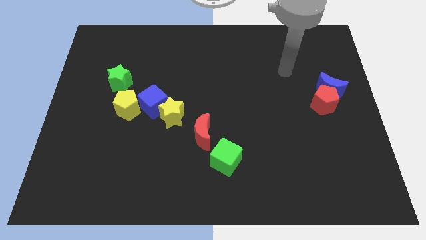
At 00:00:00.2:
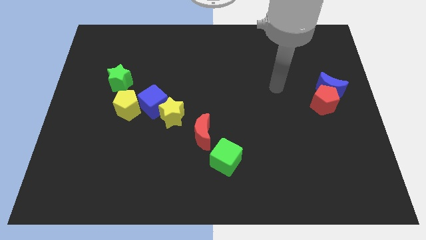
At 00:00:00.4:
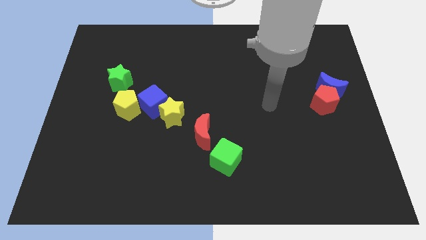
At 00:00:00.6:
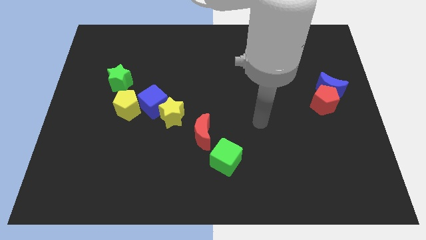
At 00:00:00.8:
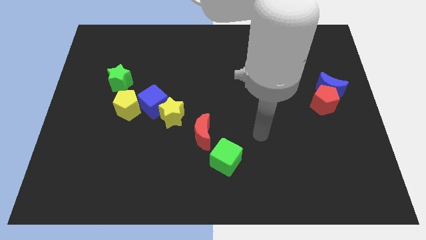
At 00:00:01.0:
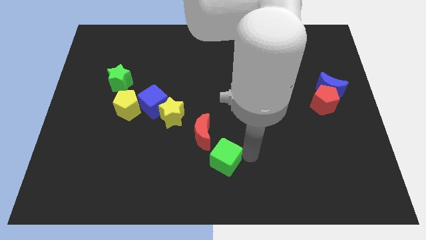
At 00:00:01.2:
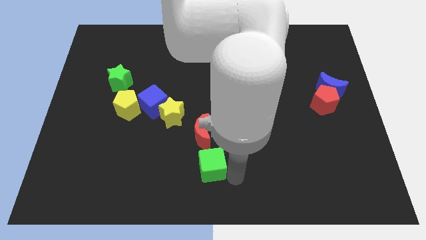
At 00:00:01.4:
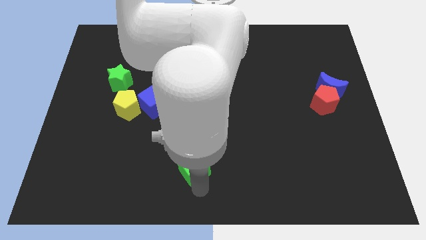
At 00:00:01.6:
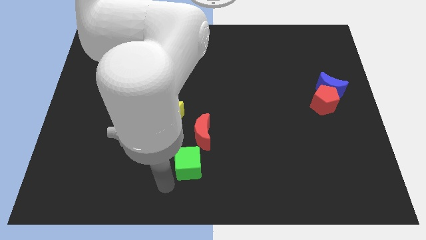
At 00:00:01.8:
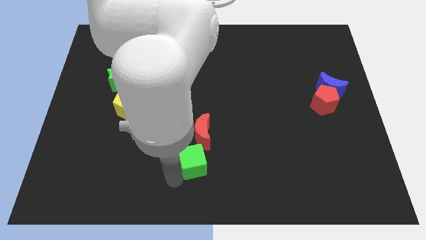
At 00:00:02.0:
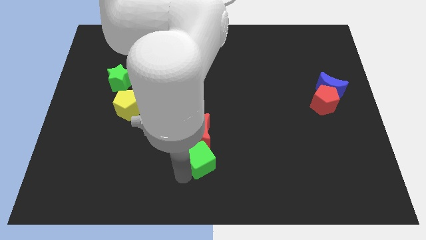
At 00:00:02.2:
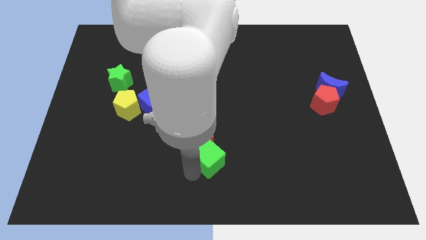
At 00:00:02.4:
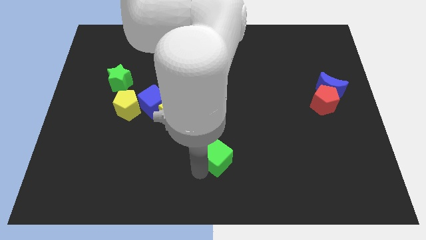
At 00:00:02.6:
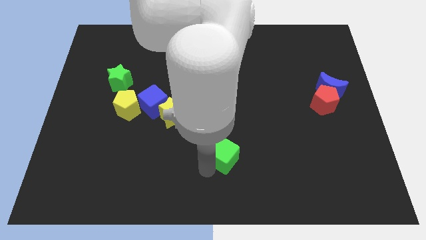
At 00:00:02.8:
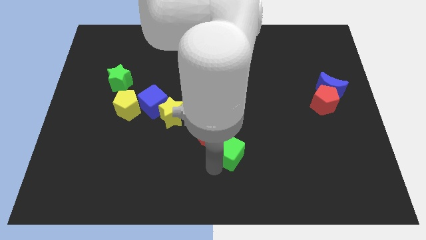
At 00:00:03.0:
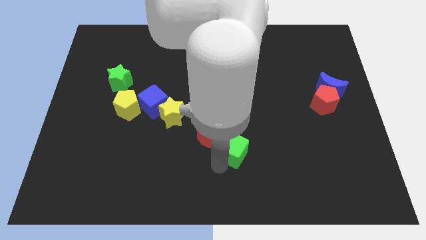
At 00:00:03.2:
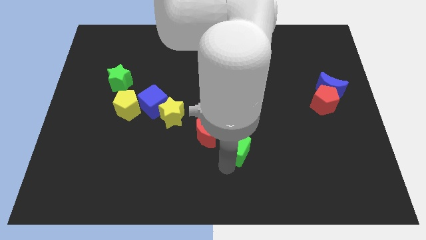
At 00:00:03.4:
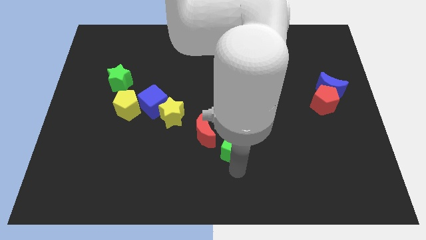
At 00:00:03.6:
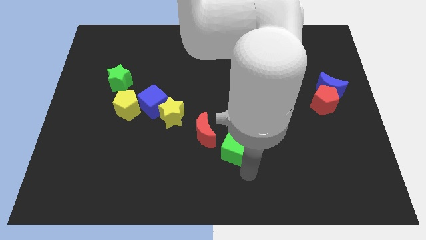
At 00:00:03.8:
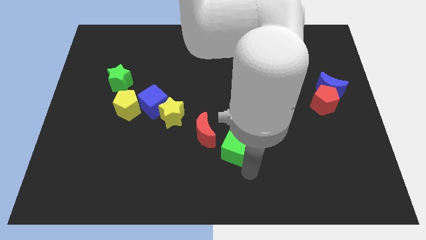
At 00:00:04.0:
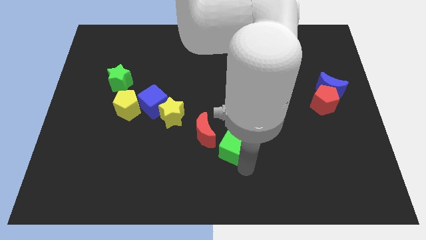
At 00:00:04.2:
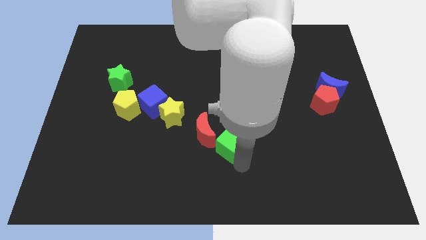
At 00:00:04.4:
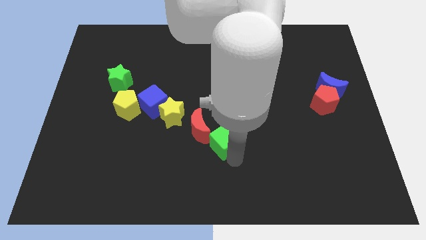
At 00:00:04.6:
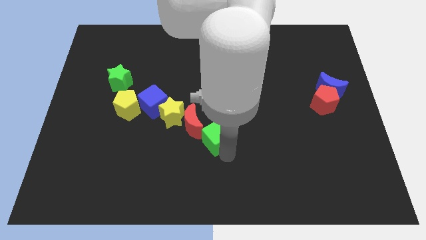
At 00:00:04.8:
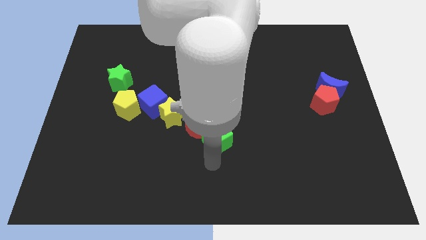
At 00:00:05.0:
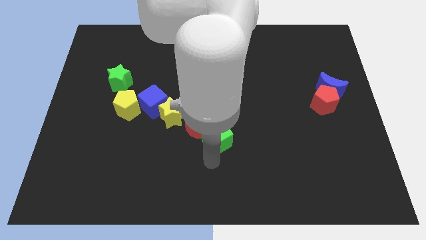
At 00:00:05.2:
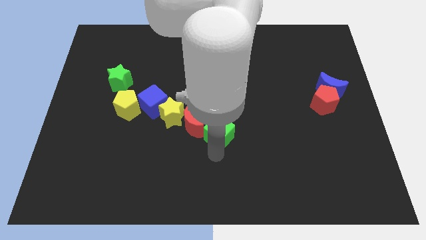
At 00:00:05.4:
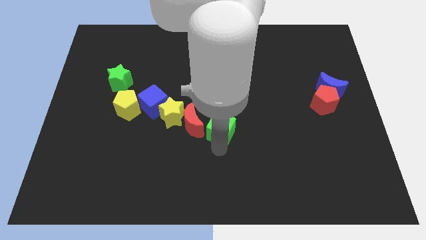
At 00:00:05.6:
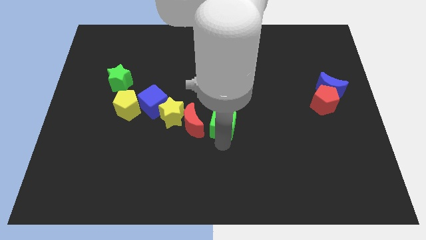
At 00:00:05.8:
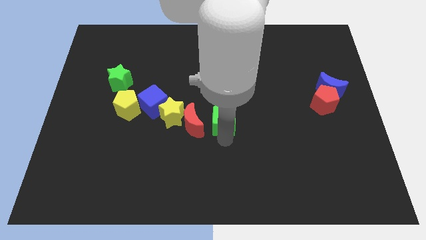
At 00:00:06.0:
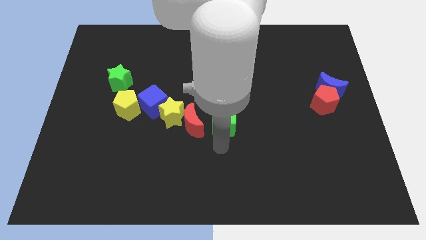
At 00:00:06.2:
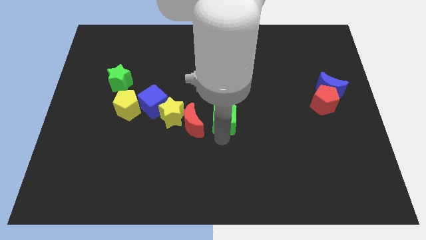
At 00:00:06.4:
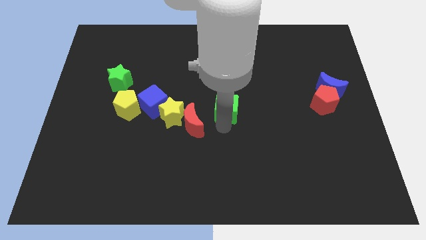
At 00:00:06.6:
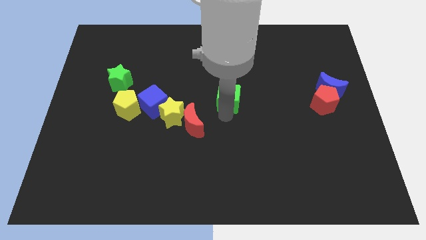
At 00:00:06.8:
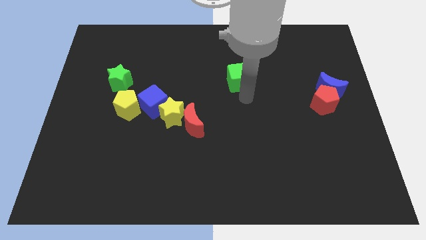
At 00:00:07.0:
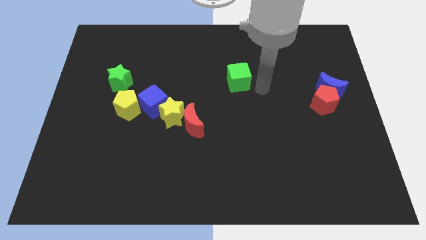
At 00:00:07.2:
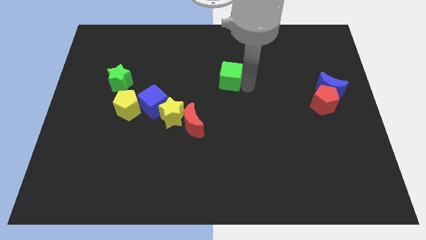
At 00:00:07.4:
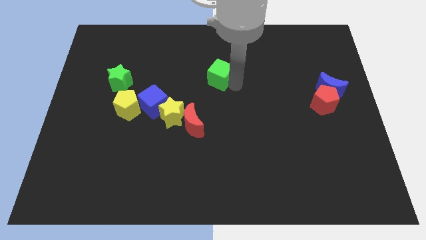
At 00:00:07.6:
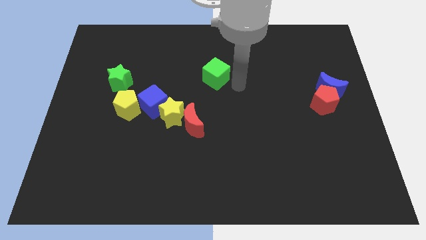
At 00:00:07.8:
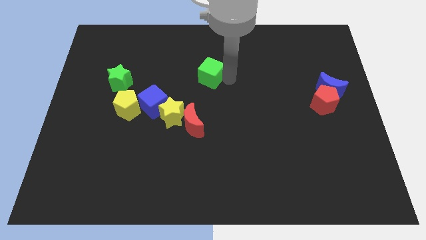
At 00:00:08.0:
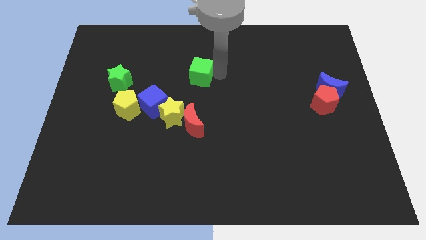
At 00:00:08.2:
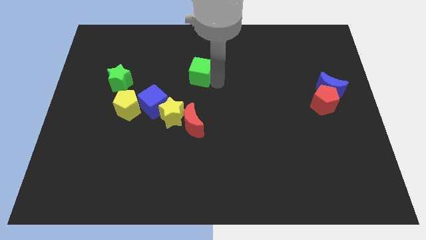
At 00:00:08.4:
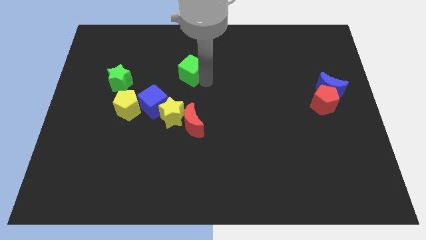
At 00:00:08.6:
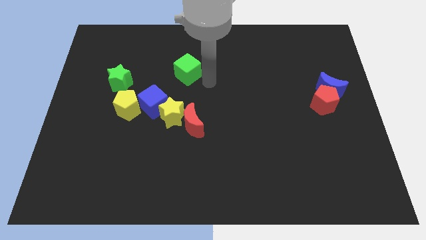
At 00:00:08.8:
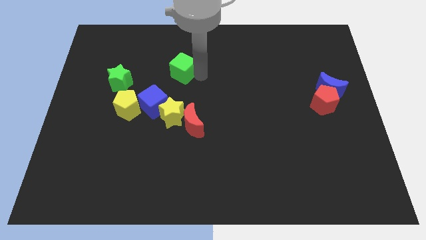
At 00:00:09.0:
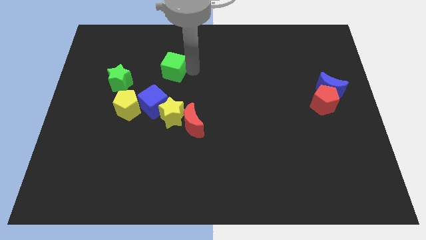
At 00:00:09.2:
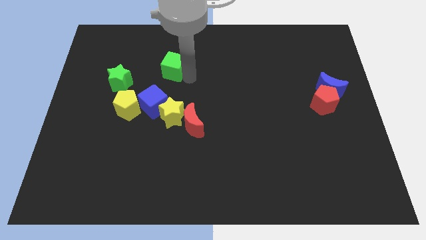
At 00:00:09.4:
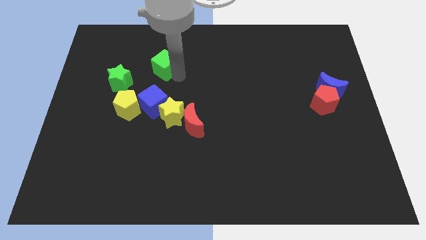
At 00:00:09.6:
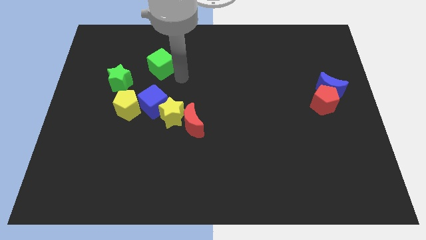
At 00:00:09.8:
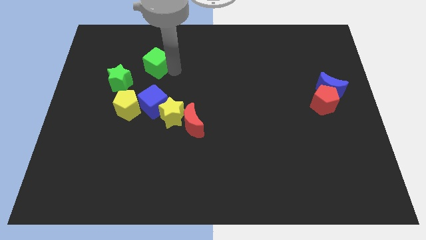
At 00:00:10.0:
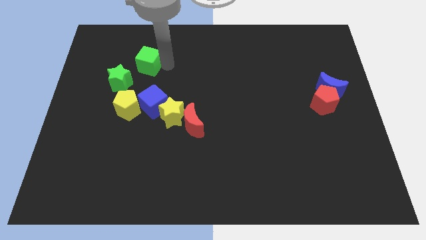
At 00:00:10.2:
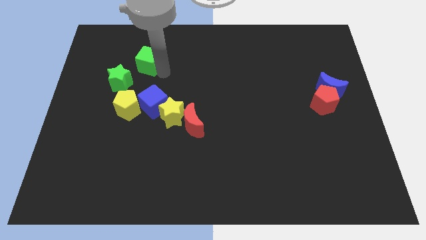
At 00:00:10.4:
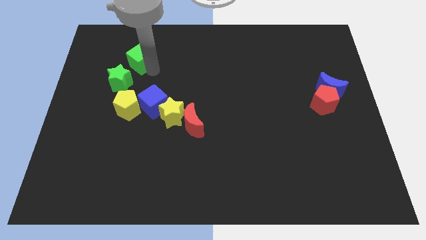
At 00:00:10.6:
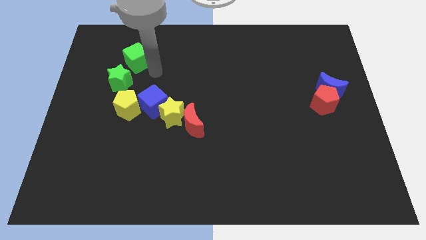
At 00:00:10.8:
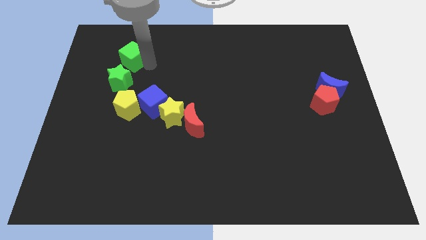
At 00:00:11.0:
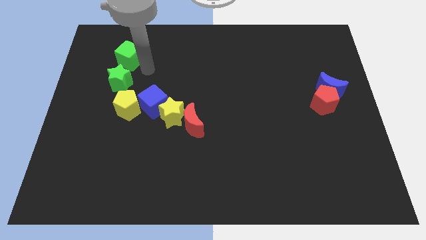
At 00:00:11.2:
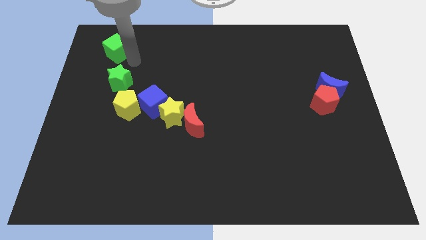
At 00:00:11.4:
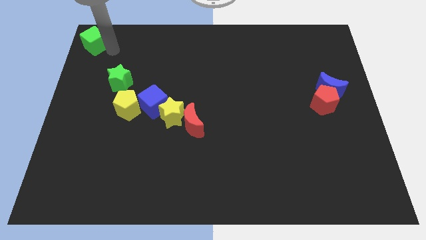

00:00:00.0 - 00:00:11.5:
move the green cube to the top left

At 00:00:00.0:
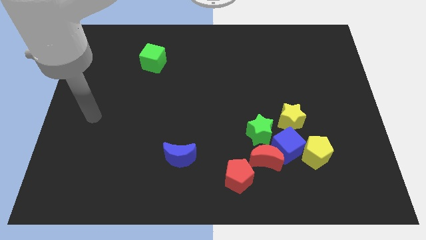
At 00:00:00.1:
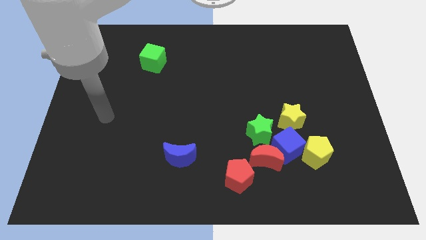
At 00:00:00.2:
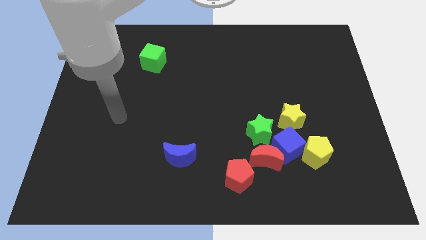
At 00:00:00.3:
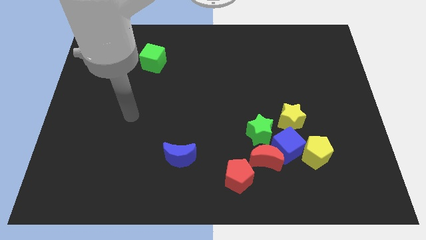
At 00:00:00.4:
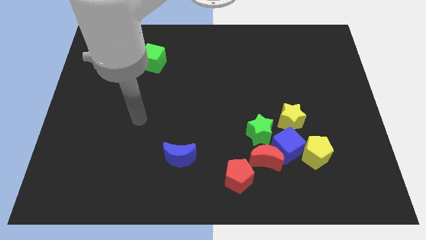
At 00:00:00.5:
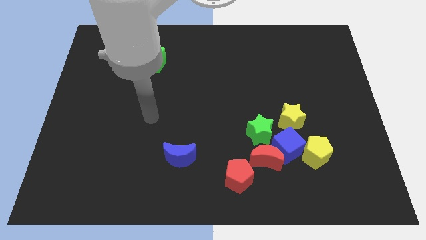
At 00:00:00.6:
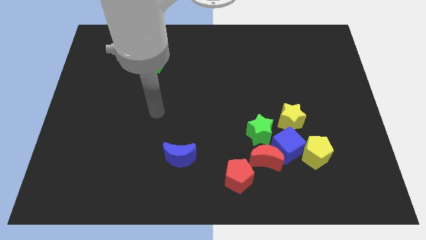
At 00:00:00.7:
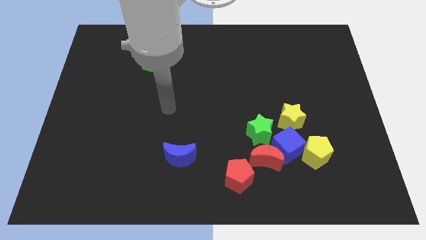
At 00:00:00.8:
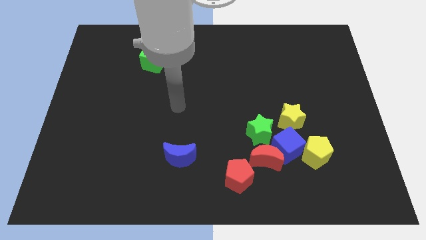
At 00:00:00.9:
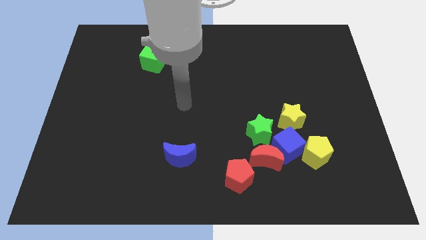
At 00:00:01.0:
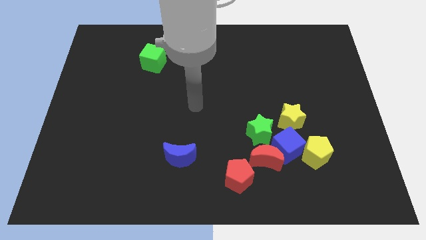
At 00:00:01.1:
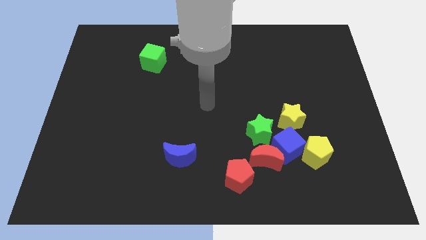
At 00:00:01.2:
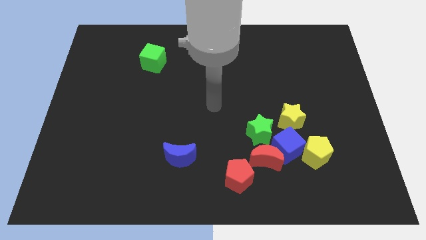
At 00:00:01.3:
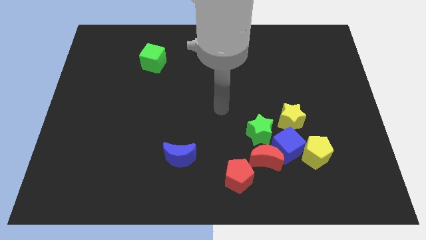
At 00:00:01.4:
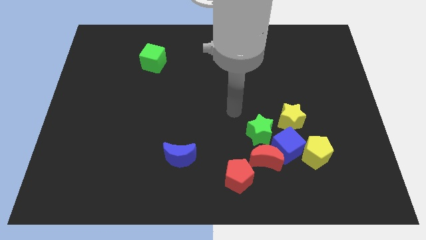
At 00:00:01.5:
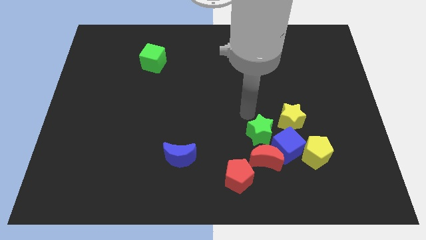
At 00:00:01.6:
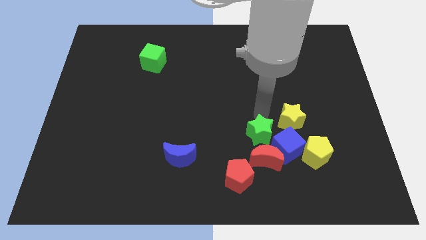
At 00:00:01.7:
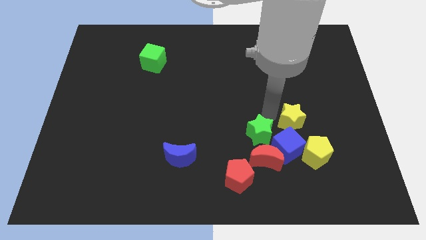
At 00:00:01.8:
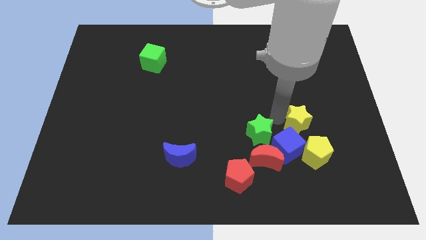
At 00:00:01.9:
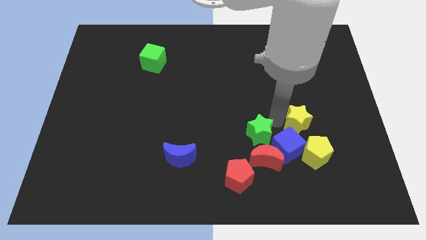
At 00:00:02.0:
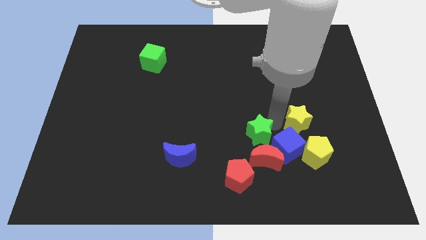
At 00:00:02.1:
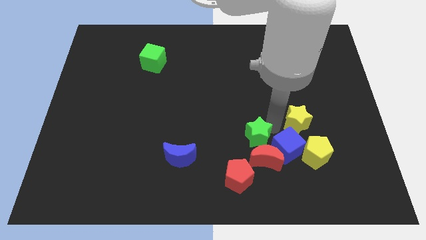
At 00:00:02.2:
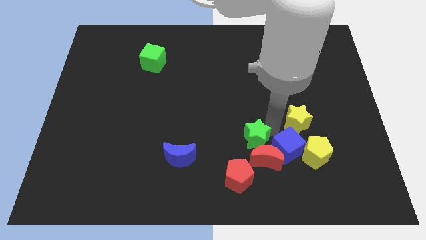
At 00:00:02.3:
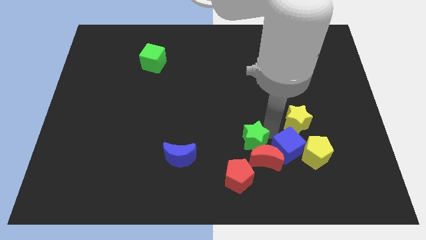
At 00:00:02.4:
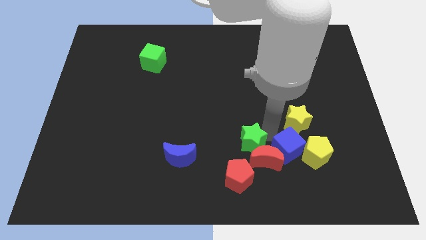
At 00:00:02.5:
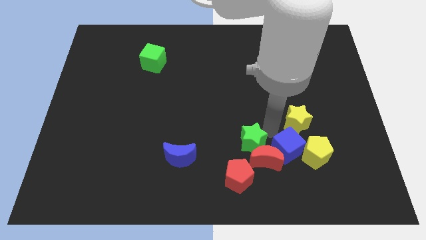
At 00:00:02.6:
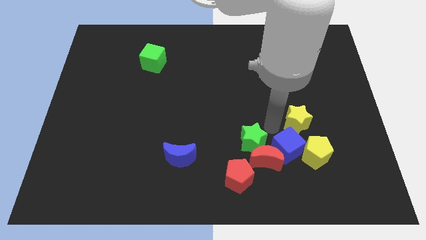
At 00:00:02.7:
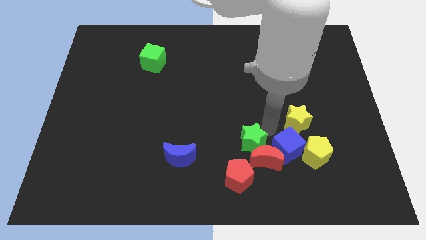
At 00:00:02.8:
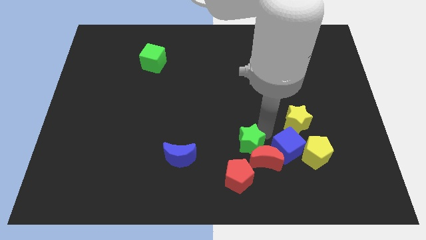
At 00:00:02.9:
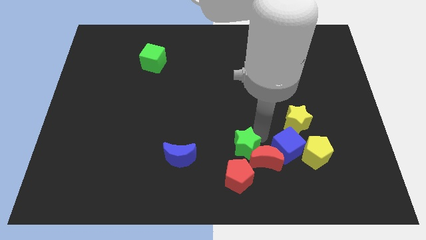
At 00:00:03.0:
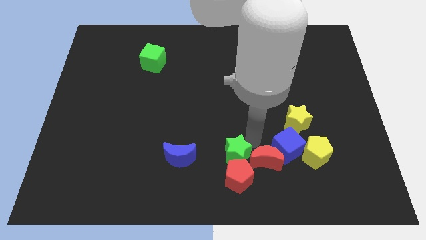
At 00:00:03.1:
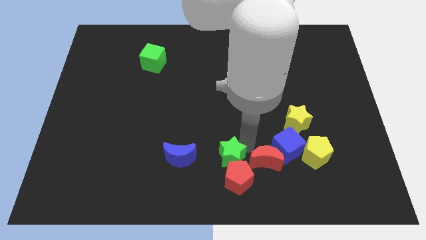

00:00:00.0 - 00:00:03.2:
push the green star to the bottom
